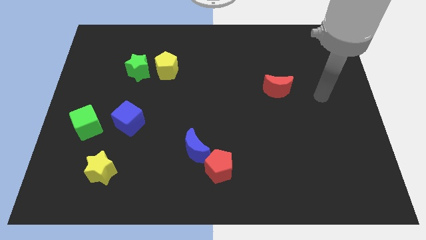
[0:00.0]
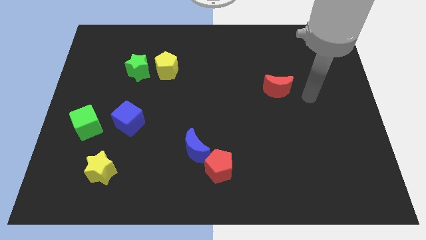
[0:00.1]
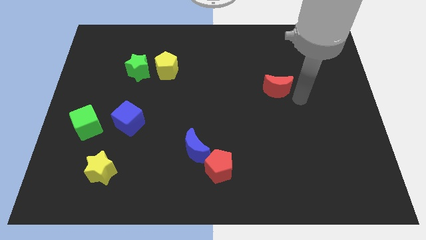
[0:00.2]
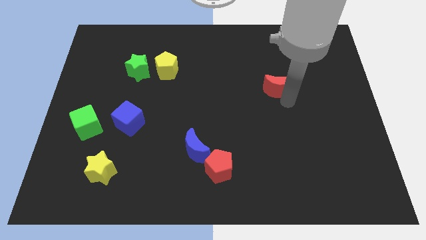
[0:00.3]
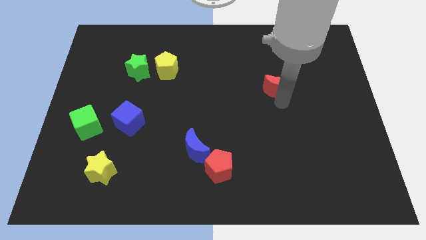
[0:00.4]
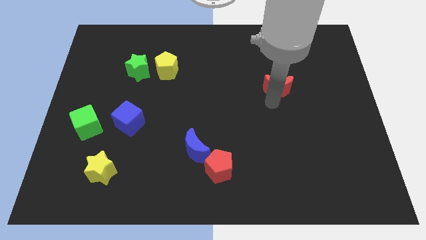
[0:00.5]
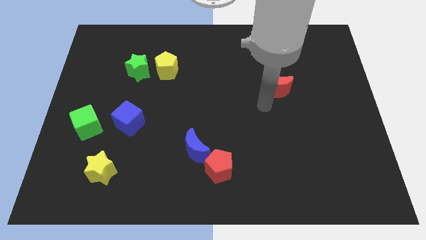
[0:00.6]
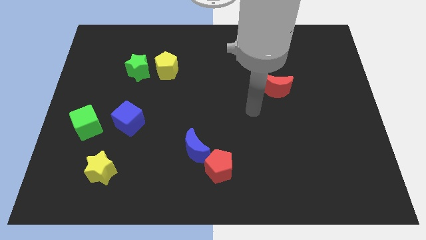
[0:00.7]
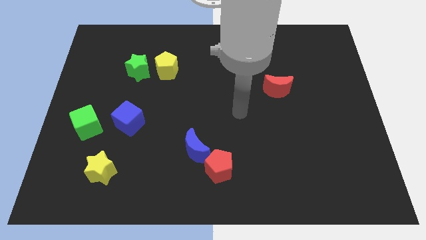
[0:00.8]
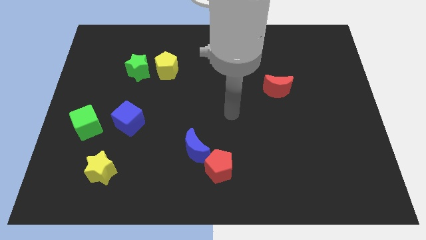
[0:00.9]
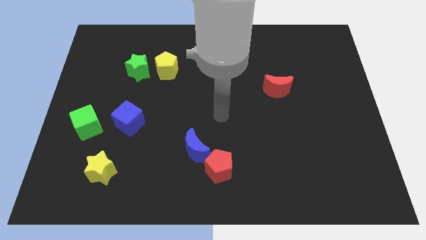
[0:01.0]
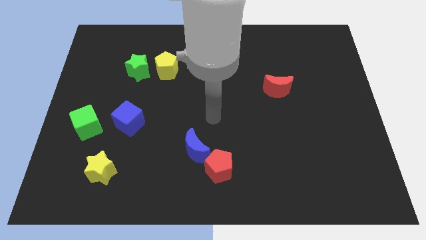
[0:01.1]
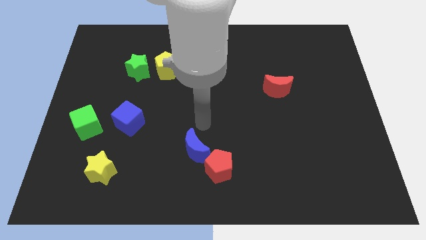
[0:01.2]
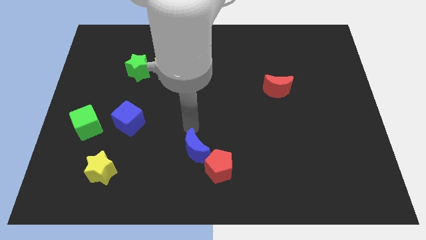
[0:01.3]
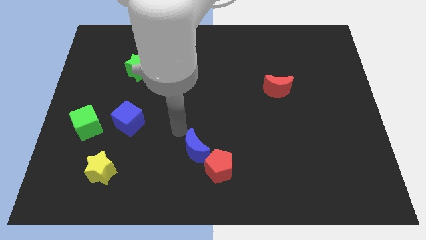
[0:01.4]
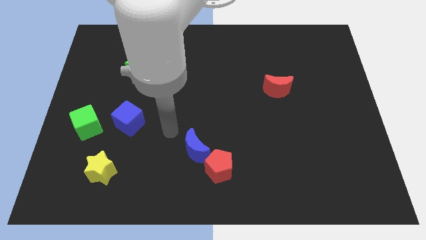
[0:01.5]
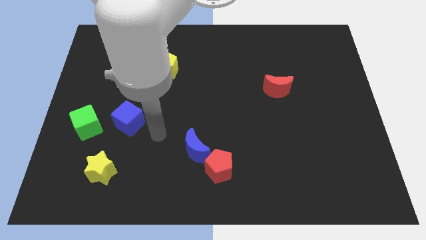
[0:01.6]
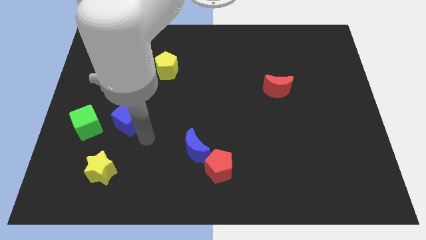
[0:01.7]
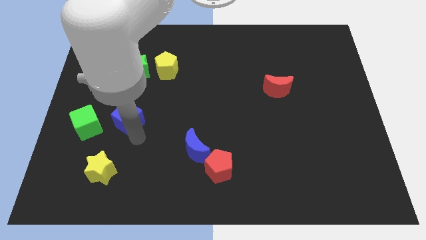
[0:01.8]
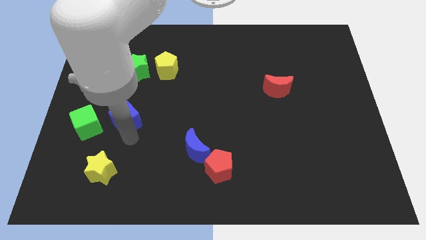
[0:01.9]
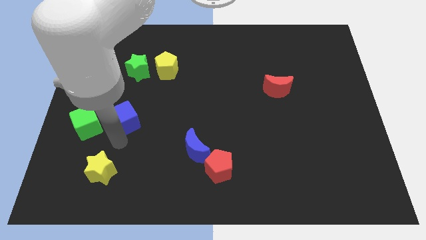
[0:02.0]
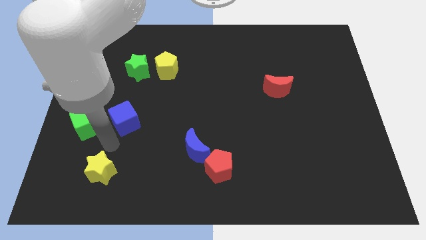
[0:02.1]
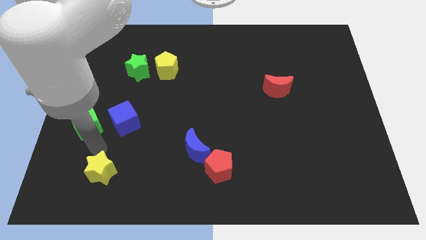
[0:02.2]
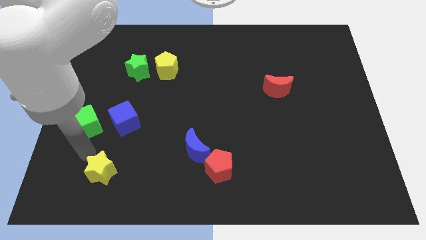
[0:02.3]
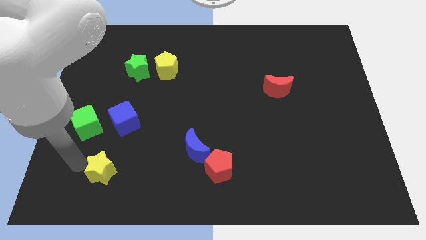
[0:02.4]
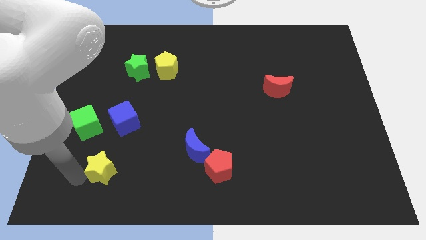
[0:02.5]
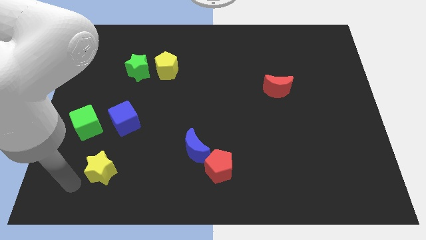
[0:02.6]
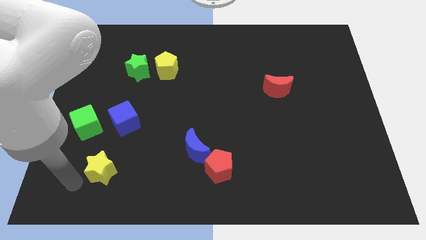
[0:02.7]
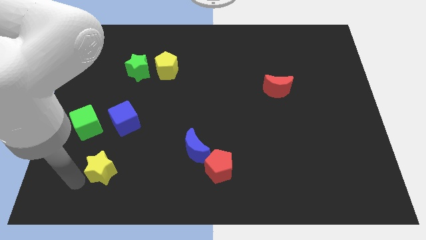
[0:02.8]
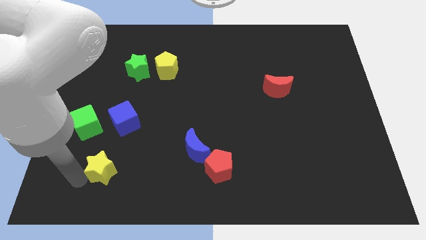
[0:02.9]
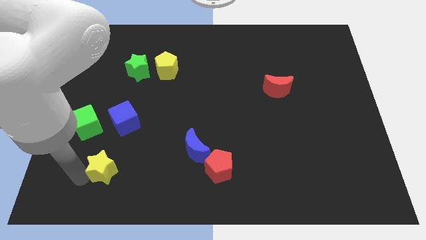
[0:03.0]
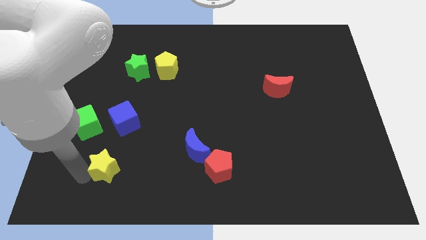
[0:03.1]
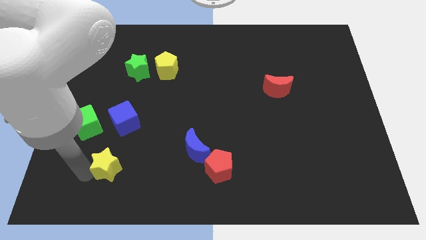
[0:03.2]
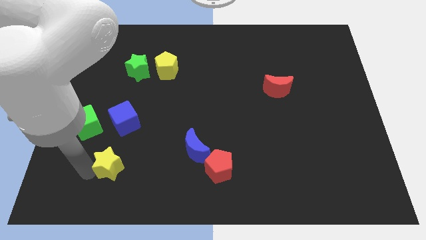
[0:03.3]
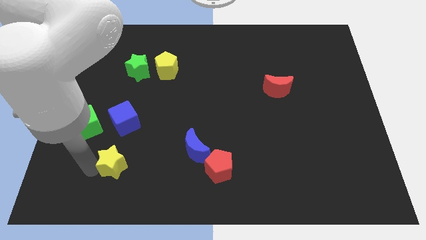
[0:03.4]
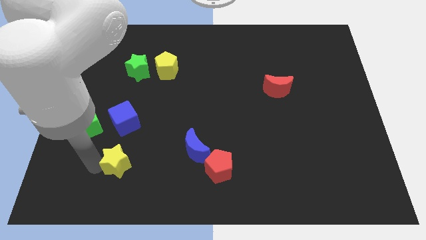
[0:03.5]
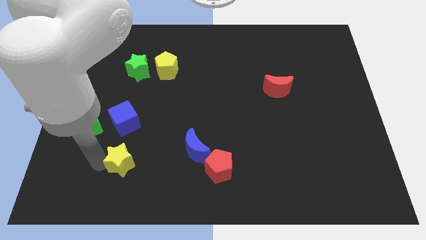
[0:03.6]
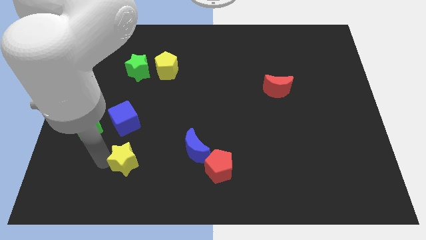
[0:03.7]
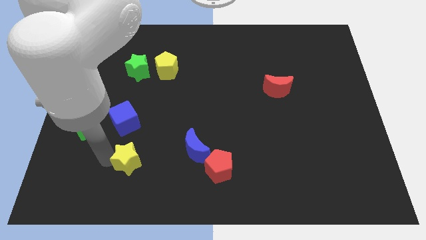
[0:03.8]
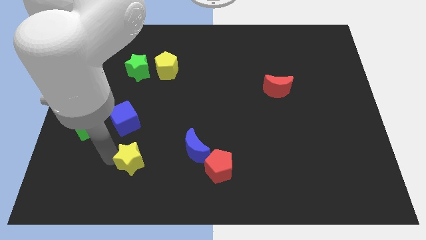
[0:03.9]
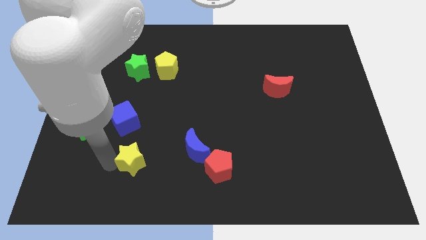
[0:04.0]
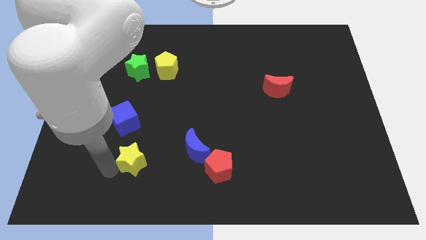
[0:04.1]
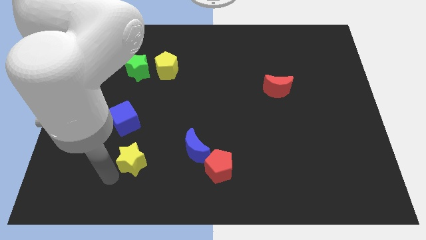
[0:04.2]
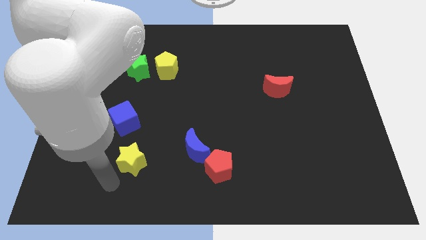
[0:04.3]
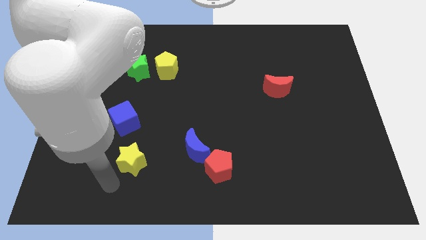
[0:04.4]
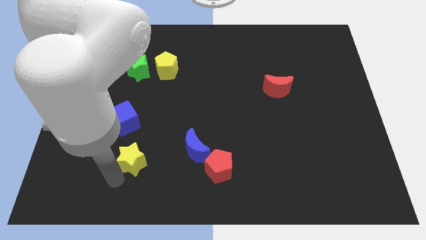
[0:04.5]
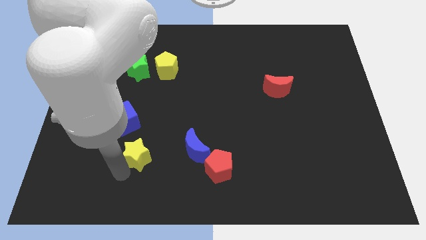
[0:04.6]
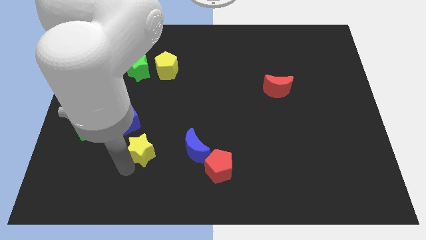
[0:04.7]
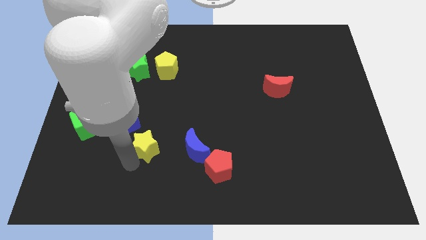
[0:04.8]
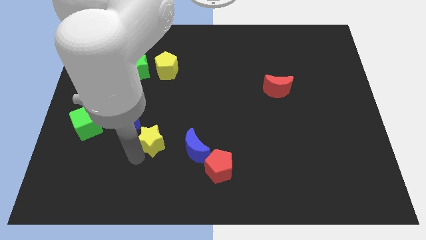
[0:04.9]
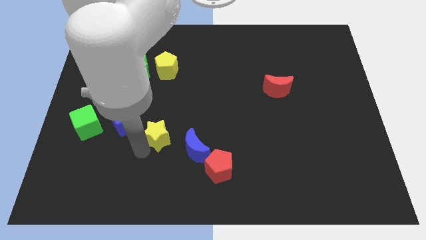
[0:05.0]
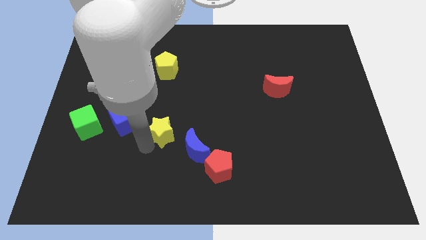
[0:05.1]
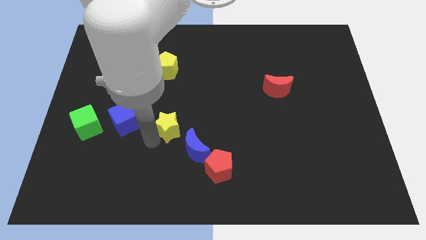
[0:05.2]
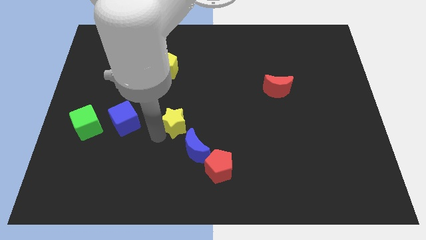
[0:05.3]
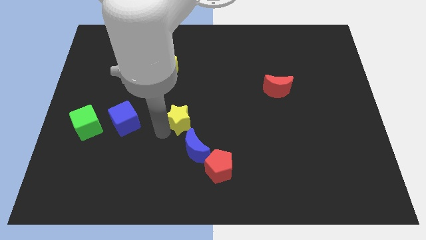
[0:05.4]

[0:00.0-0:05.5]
move the yellow star upwards and right

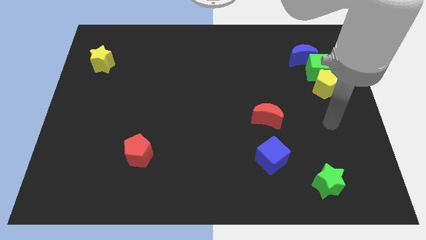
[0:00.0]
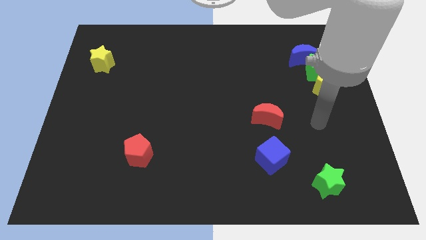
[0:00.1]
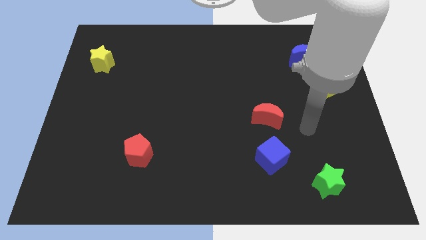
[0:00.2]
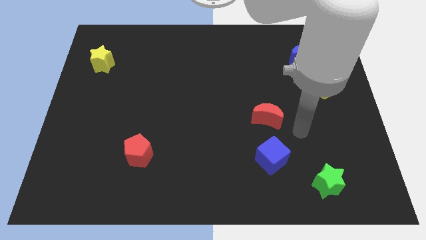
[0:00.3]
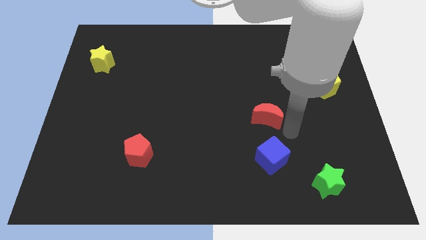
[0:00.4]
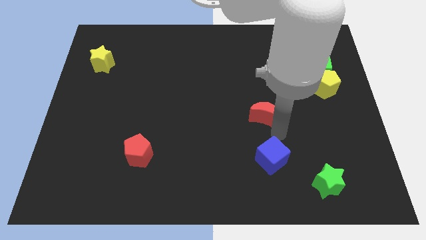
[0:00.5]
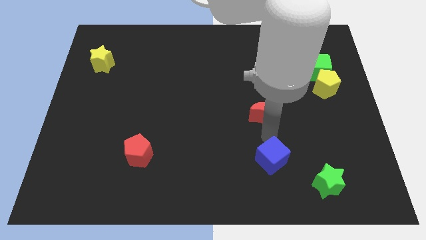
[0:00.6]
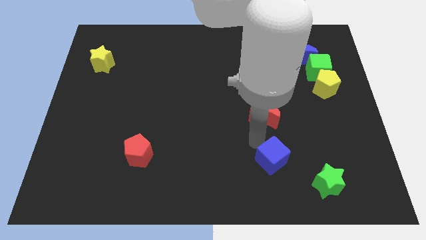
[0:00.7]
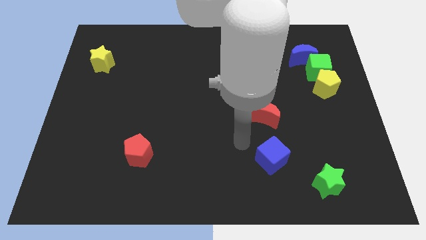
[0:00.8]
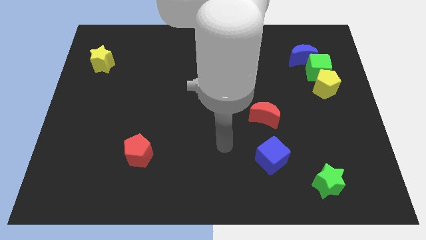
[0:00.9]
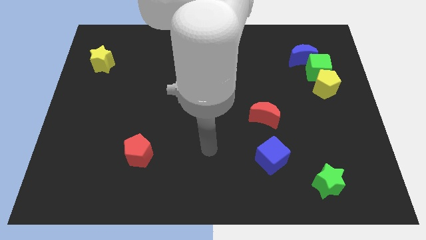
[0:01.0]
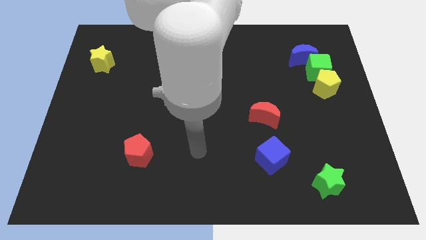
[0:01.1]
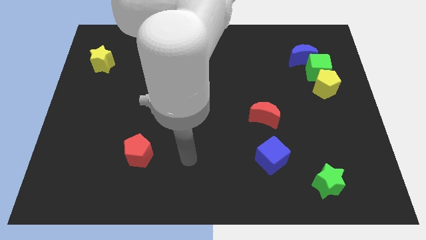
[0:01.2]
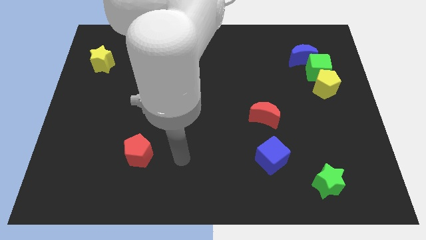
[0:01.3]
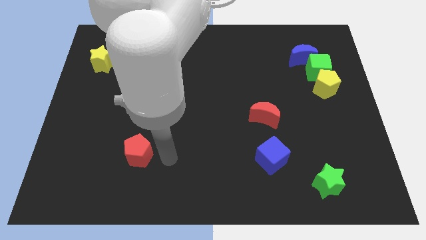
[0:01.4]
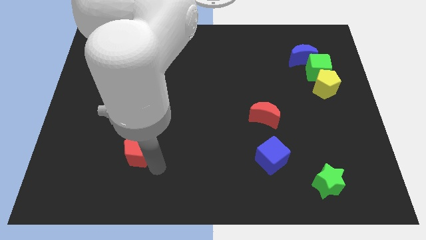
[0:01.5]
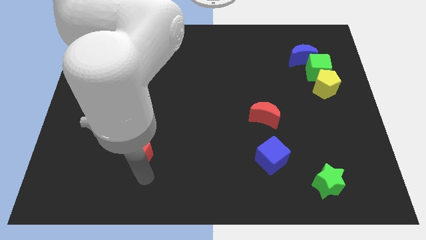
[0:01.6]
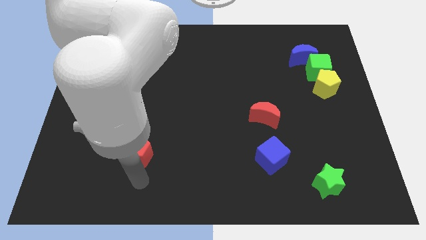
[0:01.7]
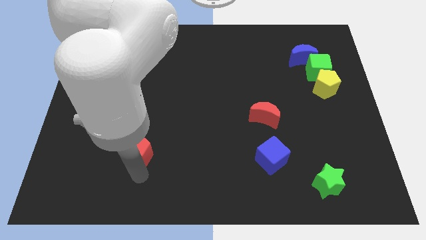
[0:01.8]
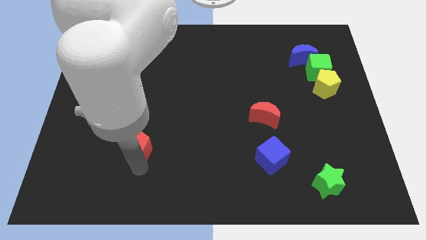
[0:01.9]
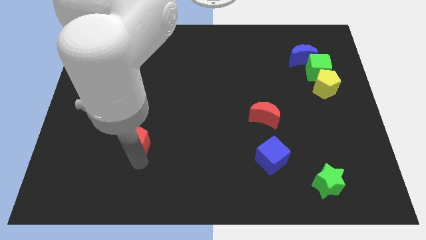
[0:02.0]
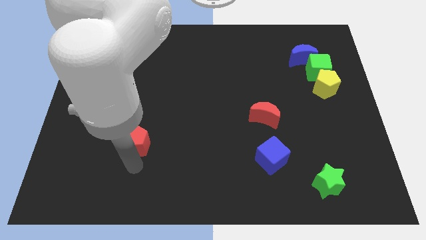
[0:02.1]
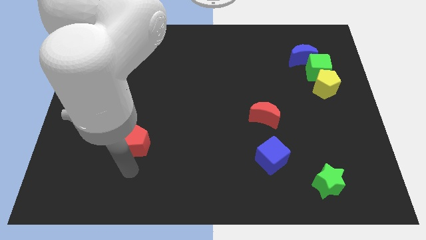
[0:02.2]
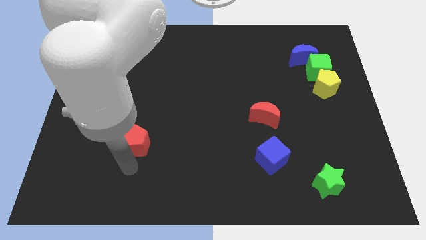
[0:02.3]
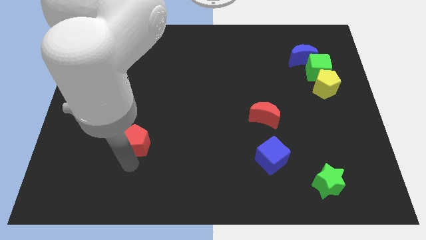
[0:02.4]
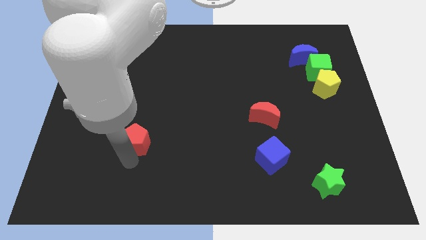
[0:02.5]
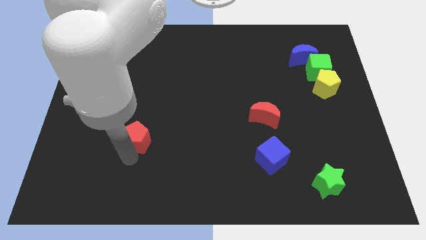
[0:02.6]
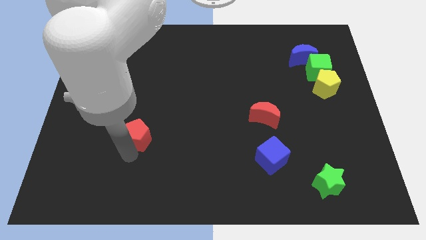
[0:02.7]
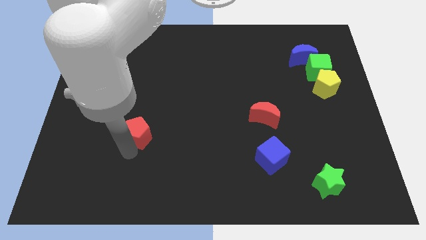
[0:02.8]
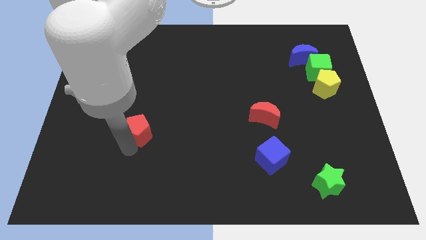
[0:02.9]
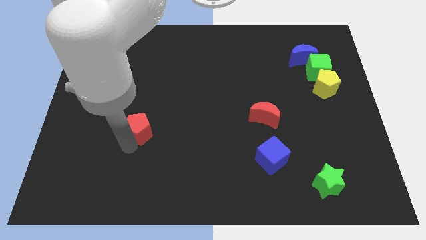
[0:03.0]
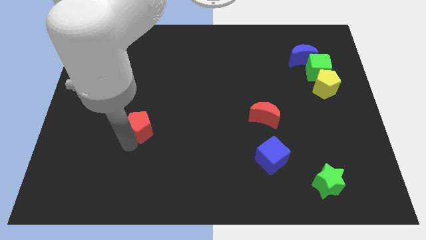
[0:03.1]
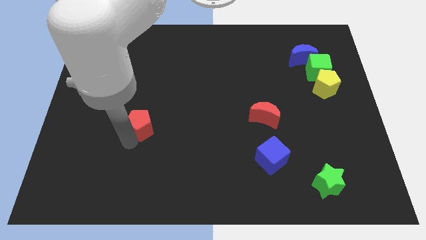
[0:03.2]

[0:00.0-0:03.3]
push the red pentagon up a little bit
